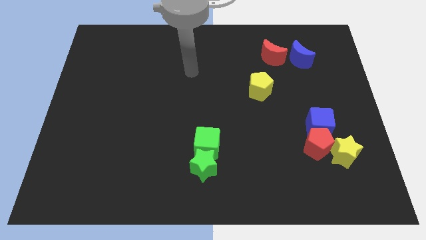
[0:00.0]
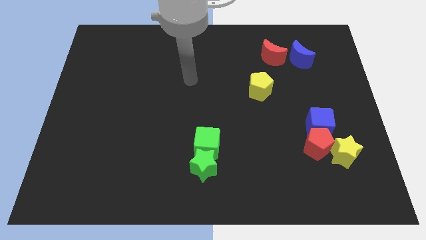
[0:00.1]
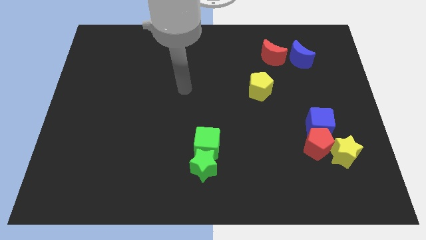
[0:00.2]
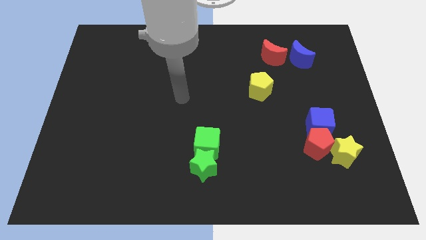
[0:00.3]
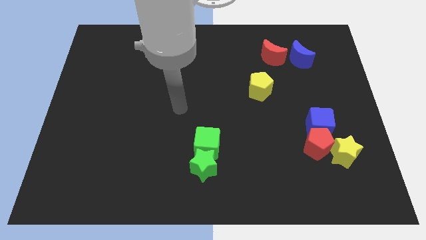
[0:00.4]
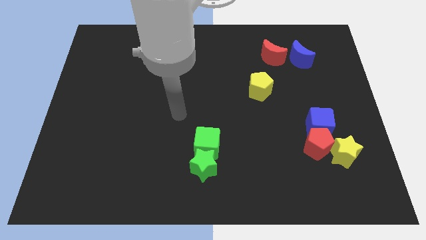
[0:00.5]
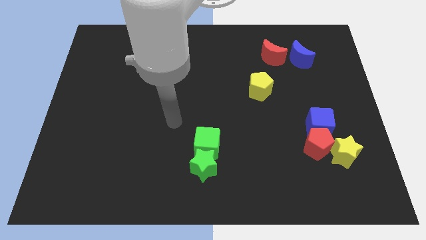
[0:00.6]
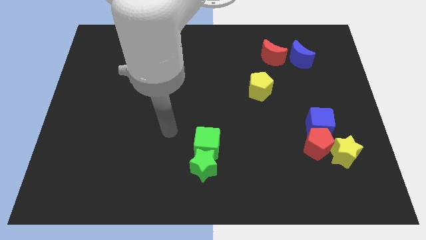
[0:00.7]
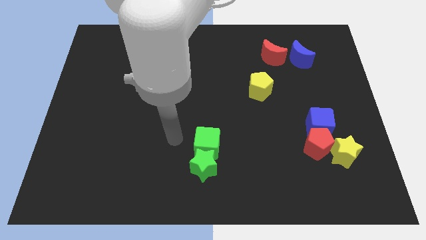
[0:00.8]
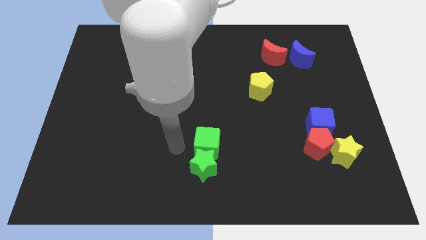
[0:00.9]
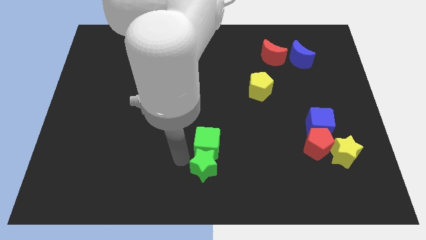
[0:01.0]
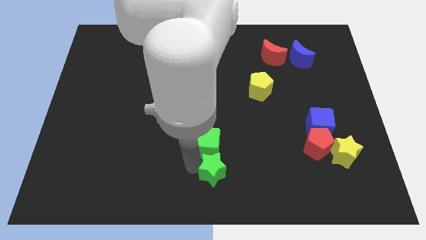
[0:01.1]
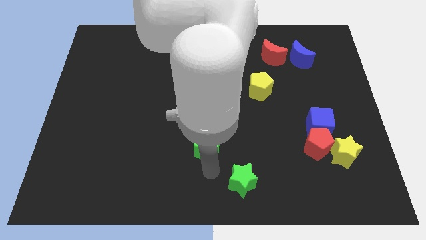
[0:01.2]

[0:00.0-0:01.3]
pull the green cube apart from the green star

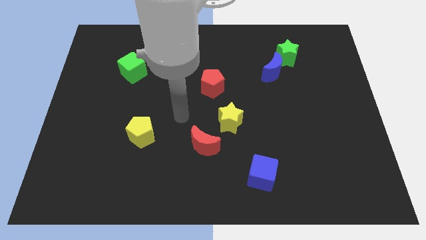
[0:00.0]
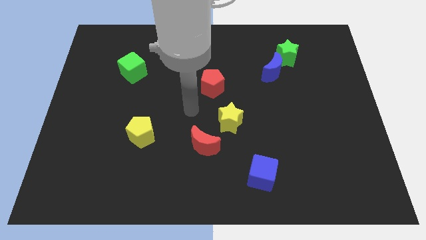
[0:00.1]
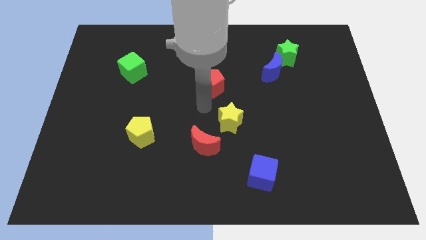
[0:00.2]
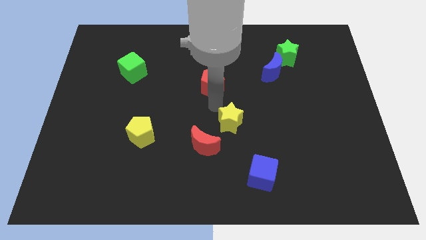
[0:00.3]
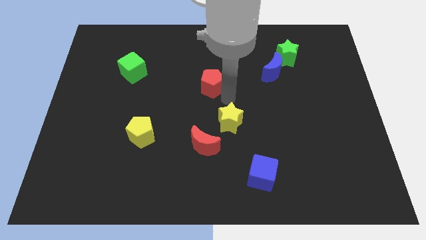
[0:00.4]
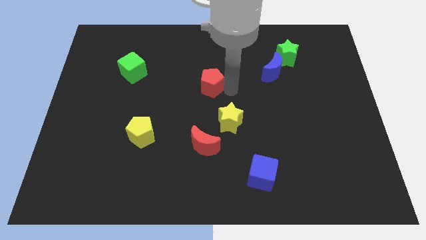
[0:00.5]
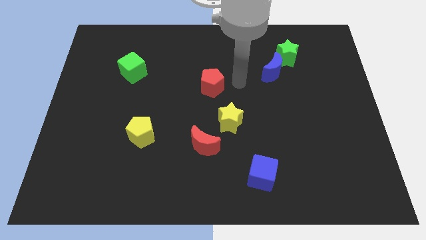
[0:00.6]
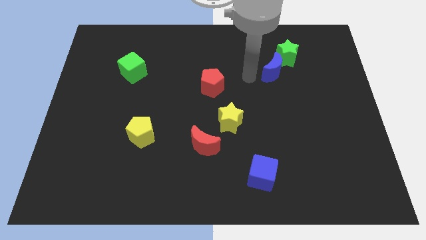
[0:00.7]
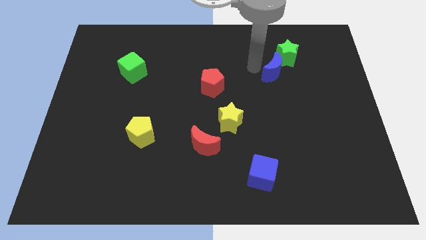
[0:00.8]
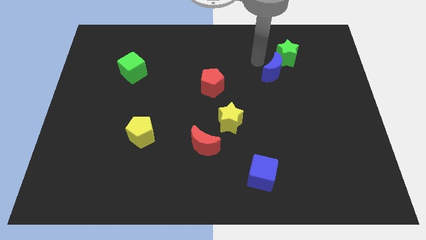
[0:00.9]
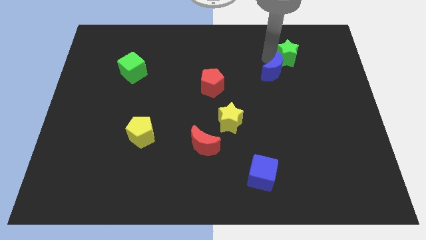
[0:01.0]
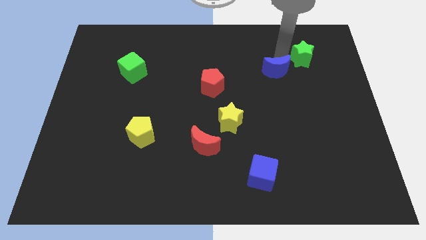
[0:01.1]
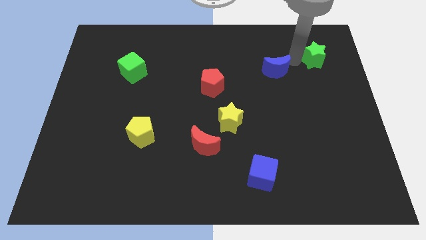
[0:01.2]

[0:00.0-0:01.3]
move the blue moon away from the green star

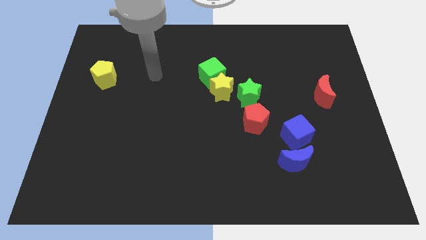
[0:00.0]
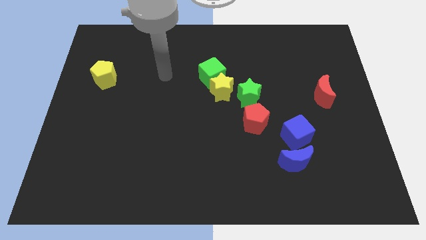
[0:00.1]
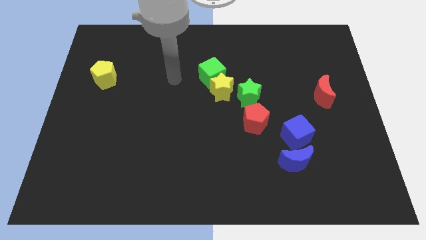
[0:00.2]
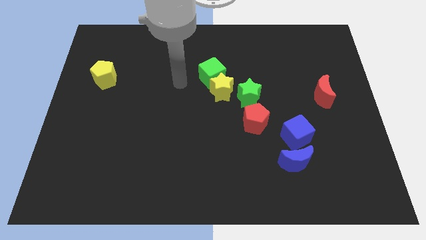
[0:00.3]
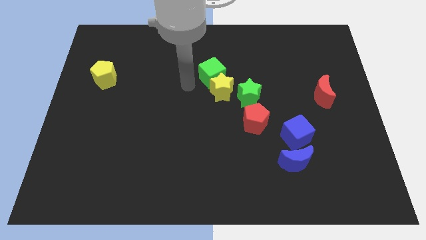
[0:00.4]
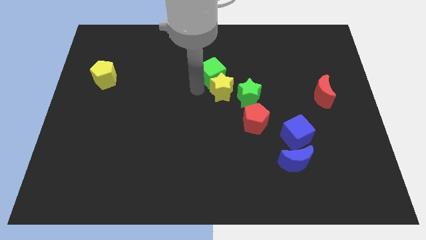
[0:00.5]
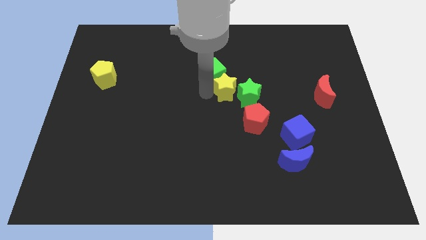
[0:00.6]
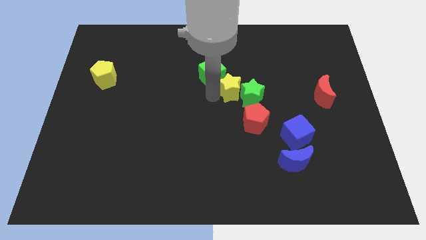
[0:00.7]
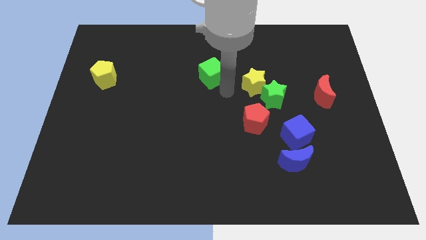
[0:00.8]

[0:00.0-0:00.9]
pull the green cube apart from the yellow star

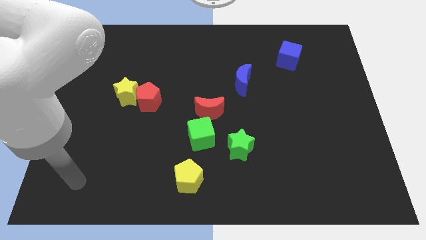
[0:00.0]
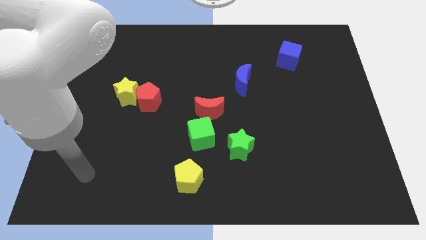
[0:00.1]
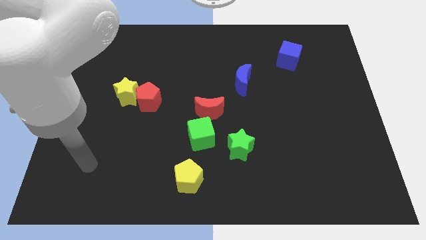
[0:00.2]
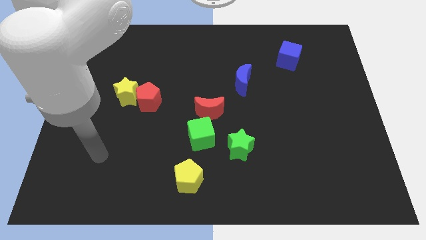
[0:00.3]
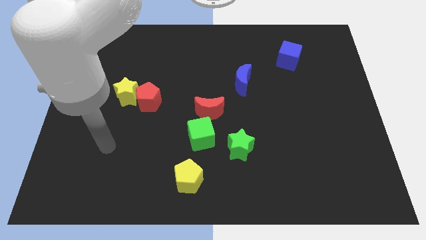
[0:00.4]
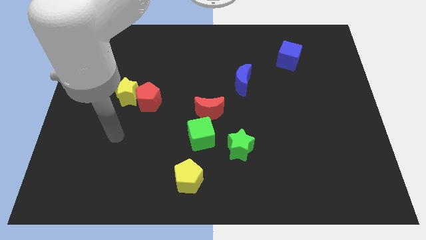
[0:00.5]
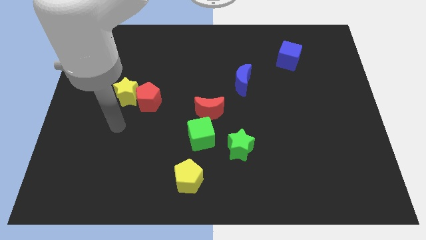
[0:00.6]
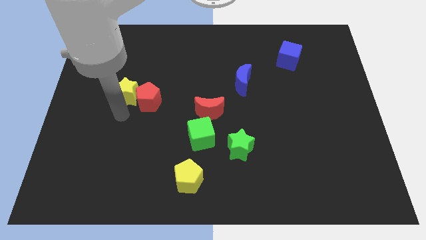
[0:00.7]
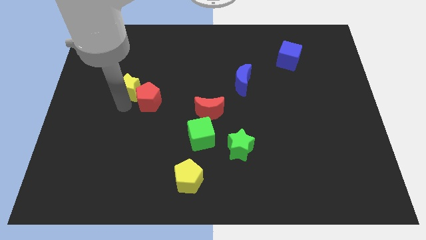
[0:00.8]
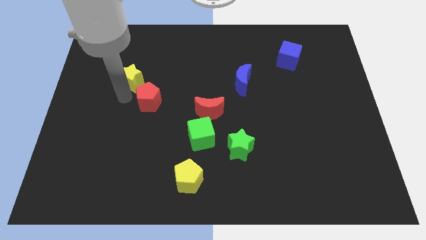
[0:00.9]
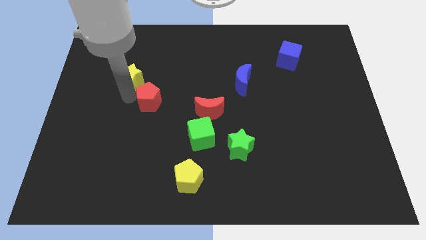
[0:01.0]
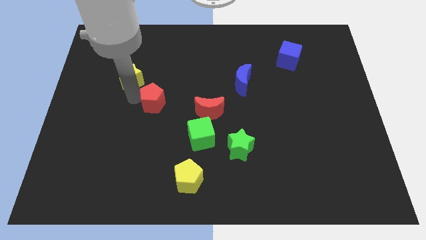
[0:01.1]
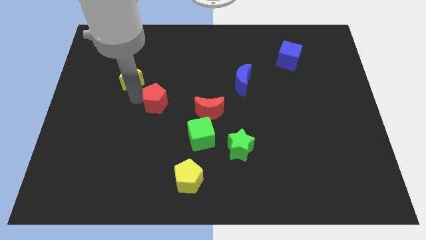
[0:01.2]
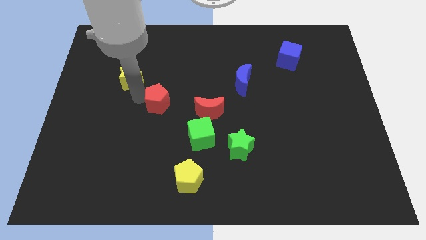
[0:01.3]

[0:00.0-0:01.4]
move the red pentagon away from the yellow star

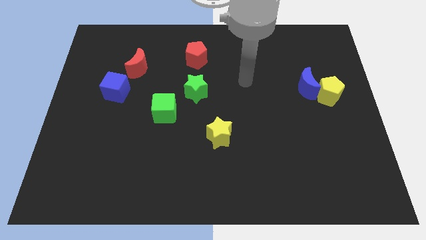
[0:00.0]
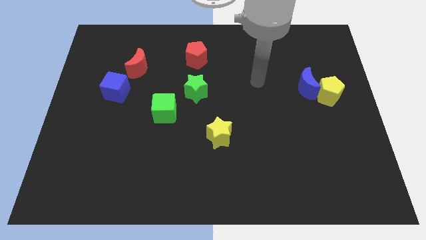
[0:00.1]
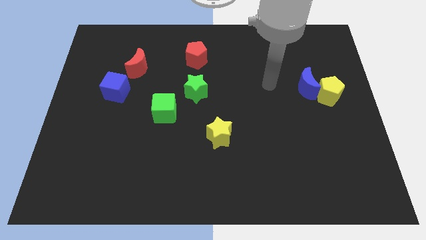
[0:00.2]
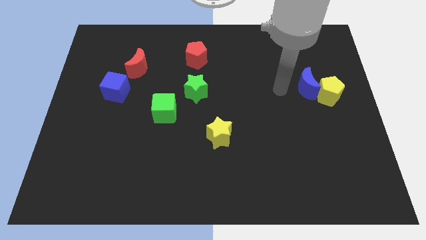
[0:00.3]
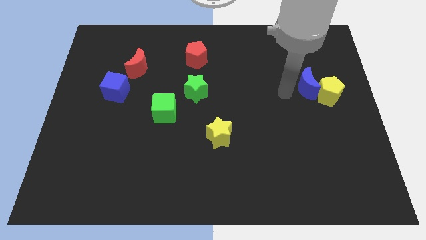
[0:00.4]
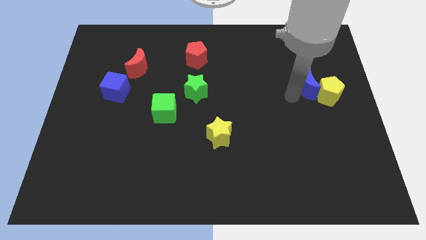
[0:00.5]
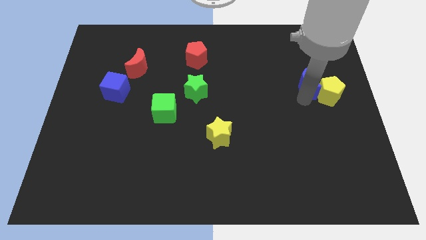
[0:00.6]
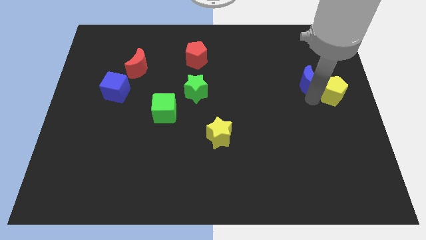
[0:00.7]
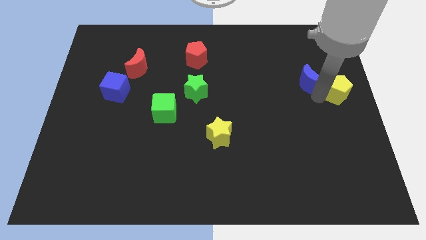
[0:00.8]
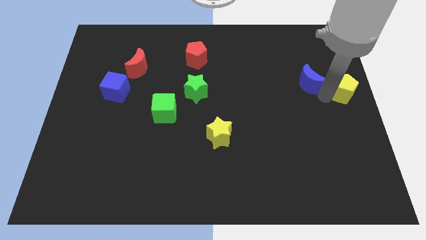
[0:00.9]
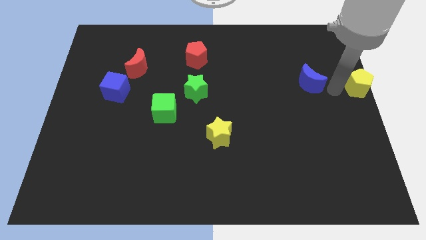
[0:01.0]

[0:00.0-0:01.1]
move the blue moon away from the yellow pentagon

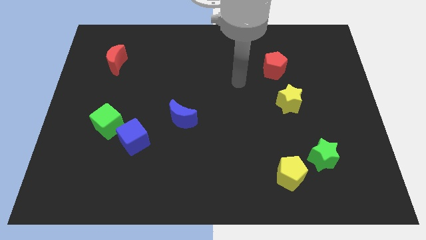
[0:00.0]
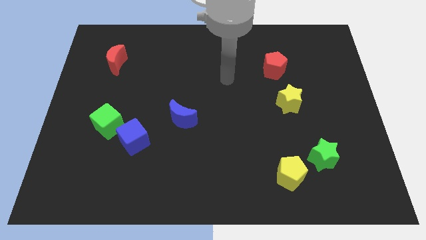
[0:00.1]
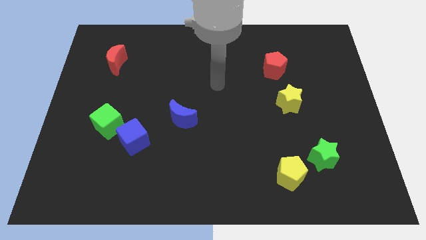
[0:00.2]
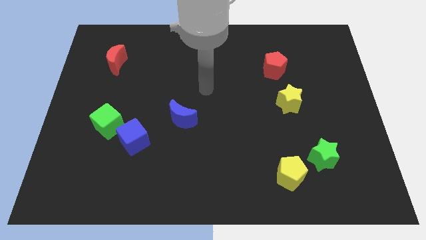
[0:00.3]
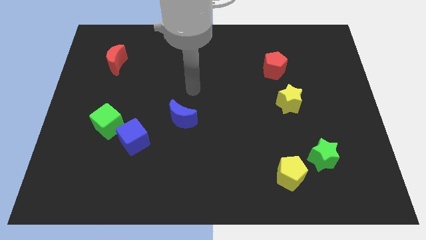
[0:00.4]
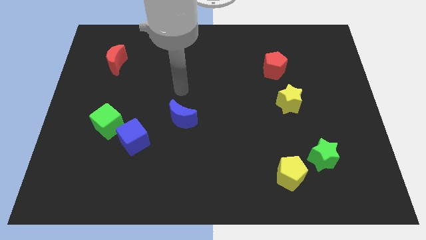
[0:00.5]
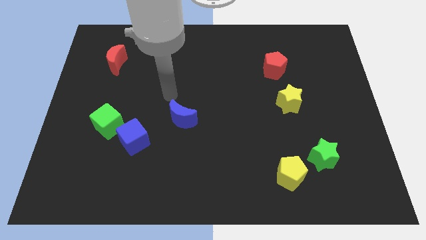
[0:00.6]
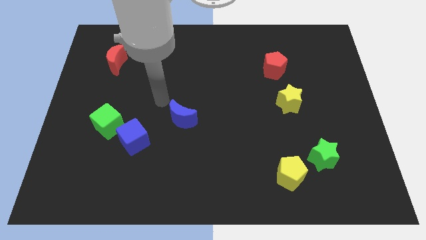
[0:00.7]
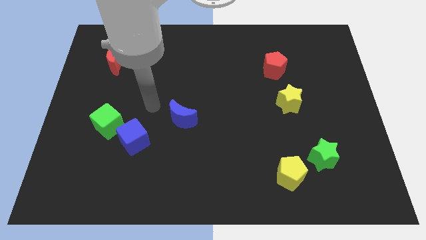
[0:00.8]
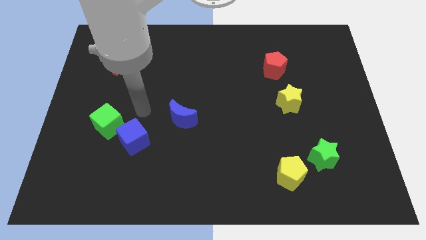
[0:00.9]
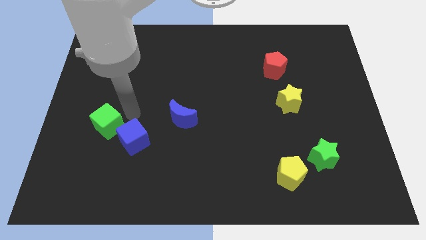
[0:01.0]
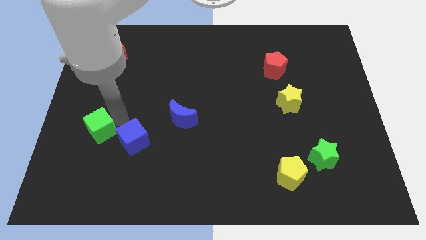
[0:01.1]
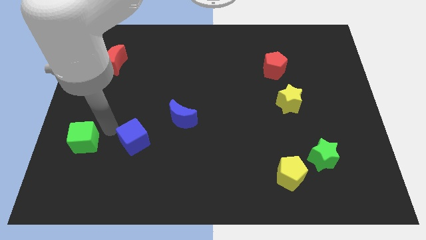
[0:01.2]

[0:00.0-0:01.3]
move the blue cube away from the green cube

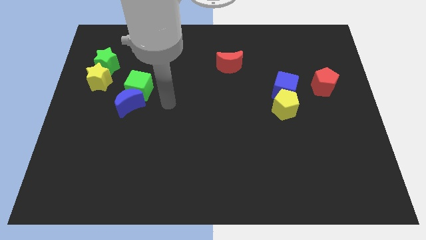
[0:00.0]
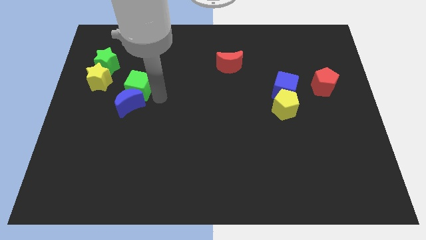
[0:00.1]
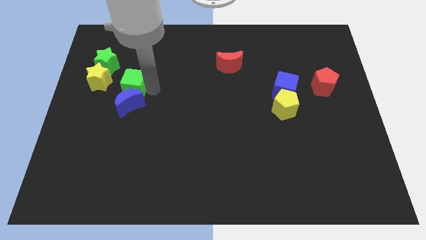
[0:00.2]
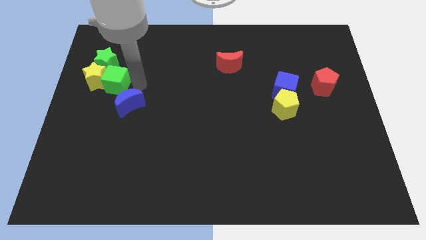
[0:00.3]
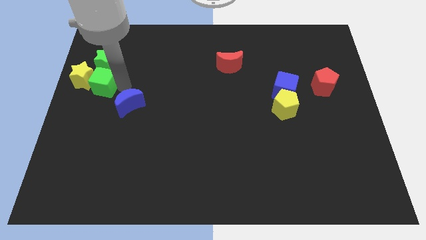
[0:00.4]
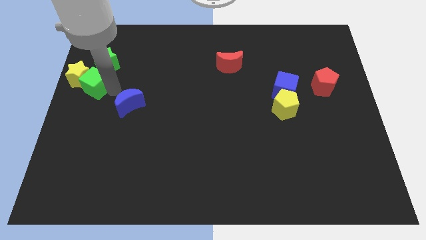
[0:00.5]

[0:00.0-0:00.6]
move the blue moon away from the green cube

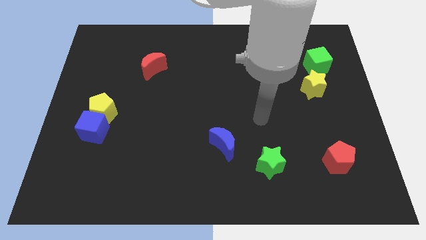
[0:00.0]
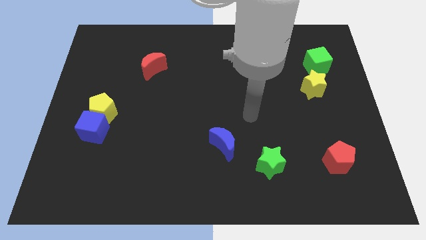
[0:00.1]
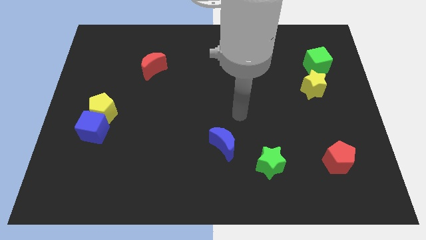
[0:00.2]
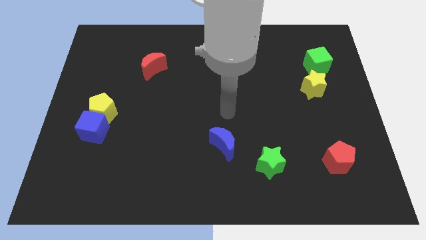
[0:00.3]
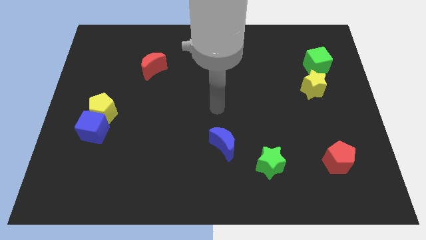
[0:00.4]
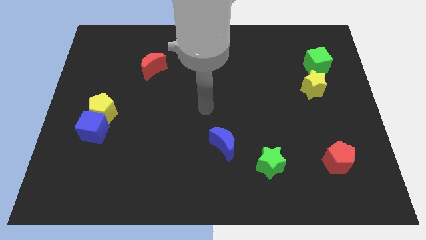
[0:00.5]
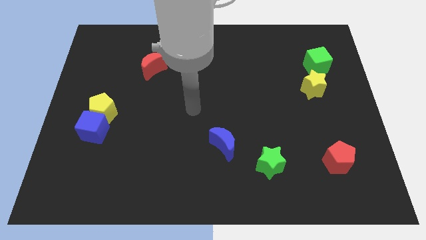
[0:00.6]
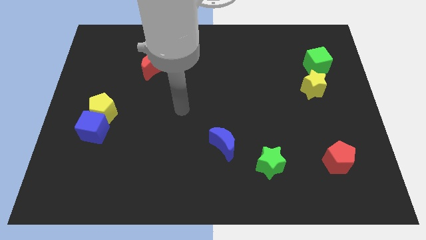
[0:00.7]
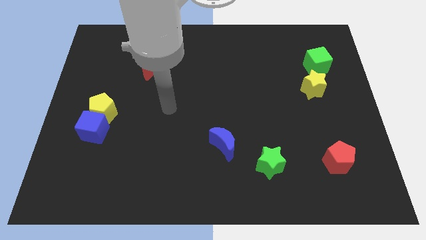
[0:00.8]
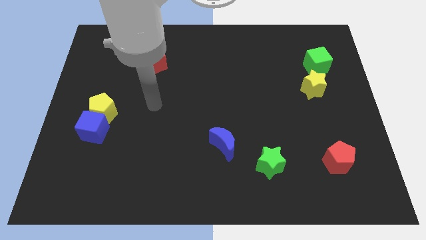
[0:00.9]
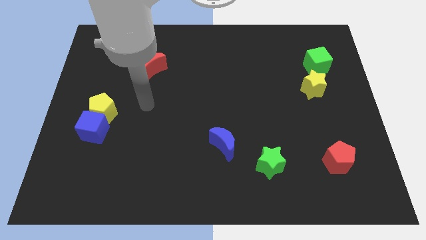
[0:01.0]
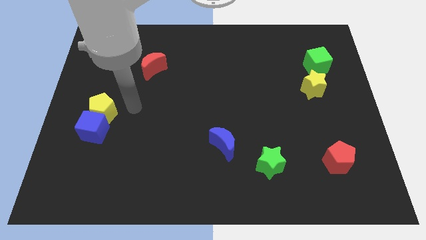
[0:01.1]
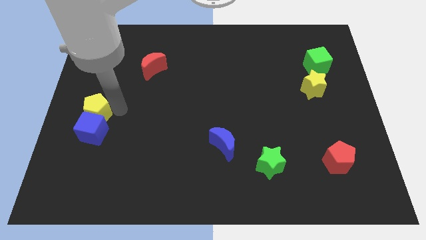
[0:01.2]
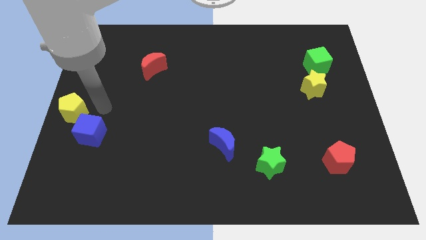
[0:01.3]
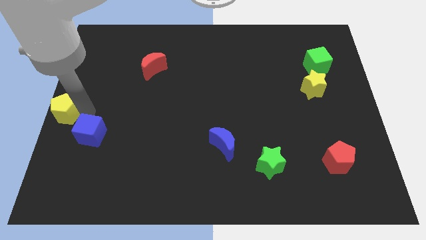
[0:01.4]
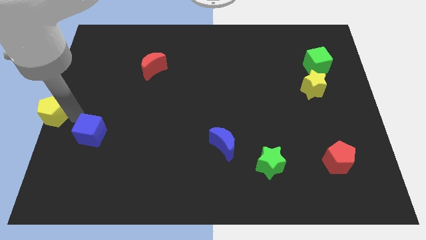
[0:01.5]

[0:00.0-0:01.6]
move the blue cube away from the yellow pentagon
